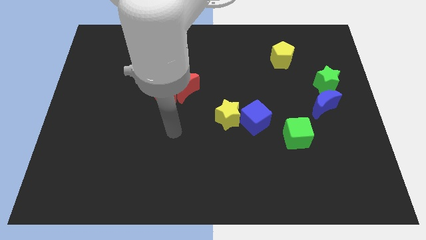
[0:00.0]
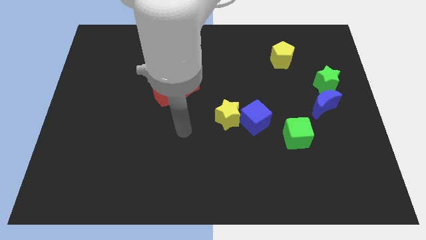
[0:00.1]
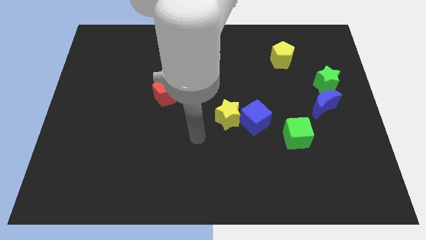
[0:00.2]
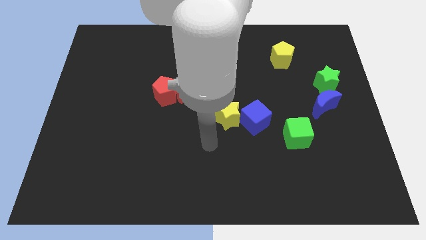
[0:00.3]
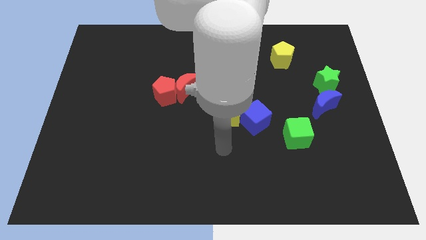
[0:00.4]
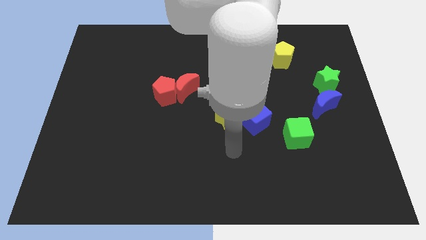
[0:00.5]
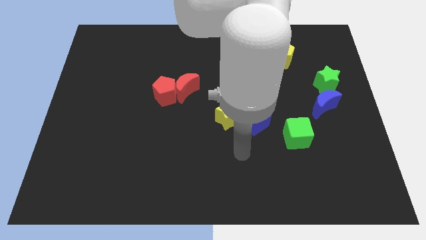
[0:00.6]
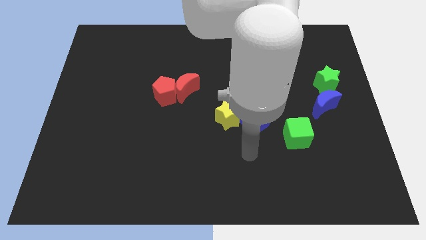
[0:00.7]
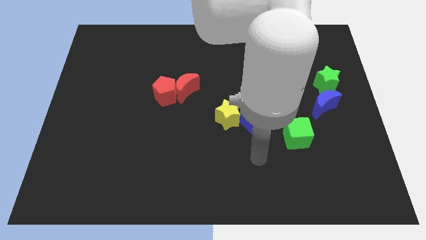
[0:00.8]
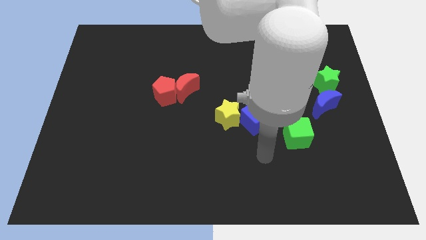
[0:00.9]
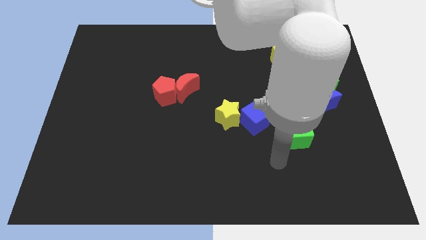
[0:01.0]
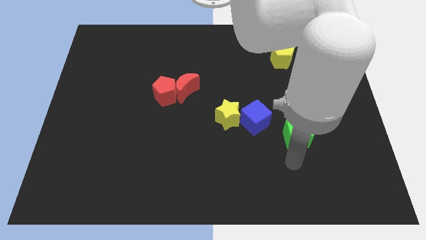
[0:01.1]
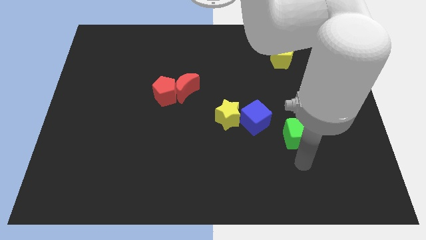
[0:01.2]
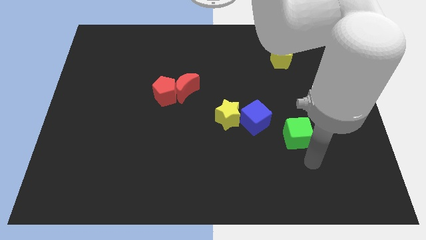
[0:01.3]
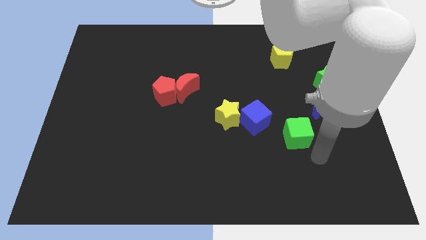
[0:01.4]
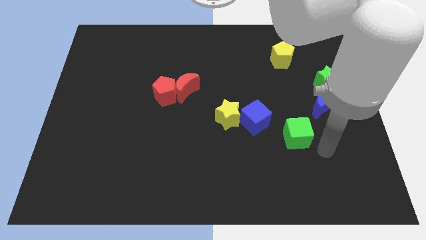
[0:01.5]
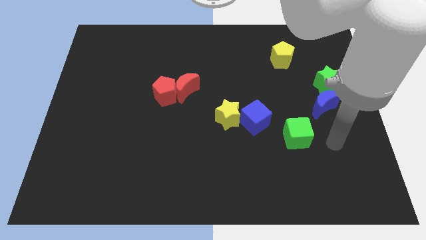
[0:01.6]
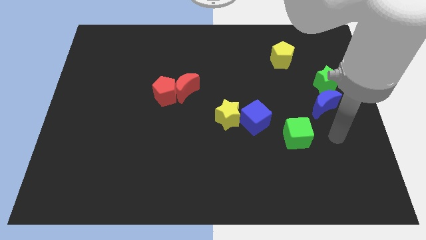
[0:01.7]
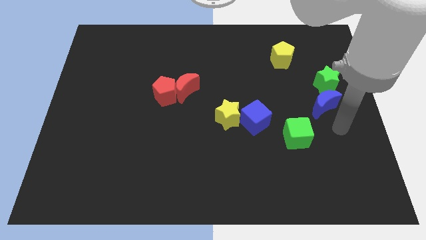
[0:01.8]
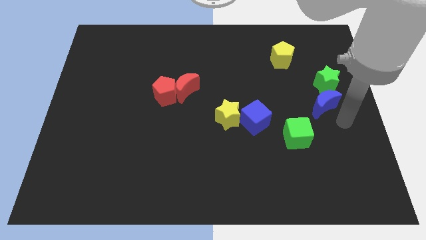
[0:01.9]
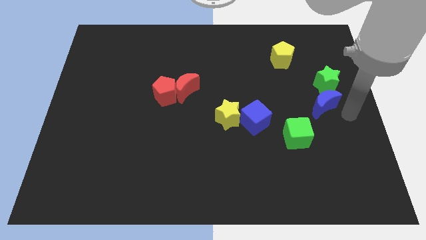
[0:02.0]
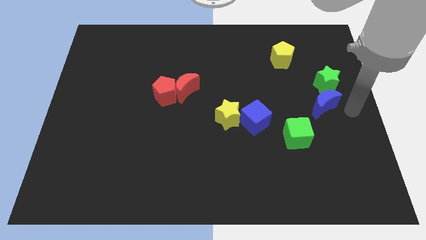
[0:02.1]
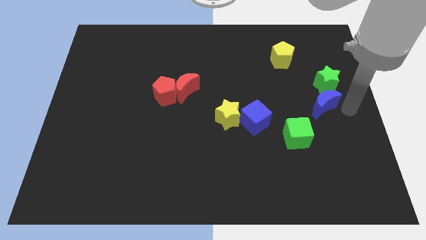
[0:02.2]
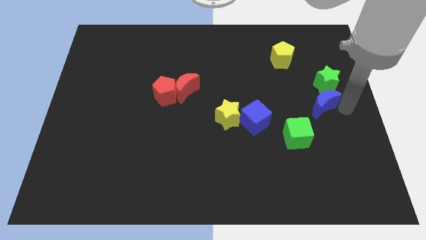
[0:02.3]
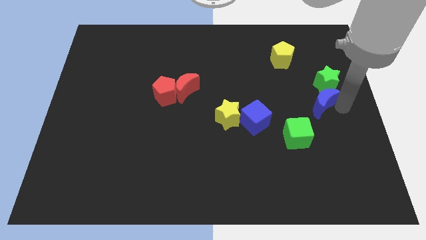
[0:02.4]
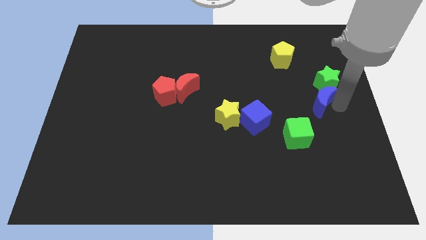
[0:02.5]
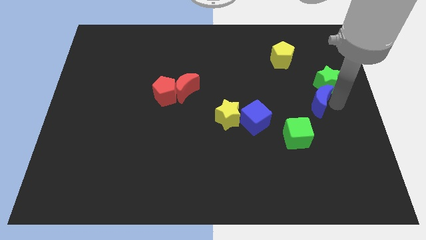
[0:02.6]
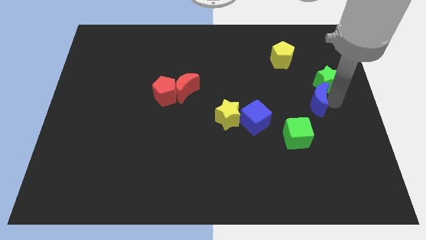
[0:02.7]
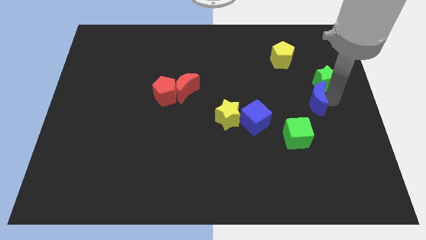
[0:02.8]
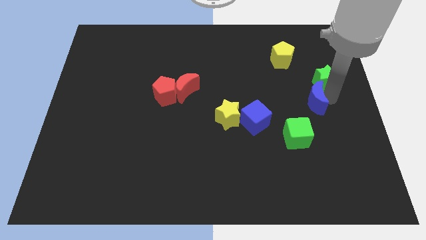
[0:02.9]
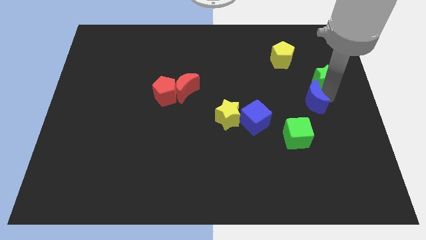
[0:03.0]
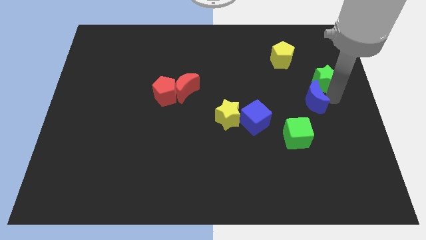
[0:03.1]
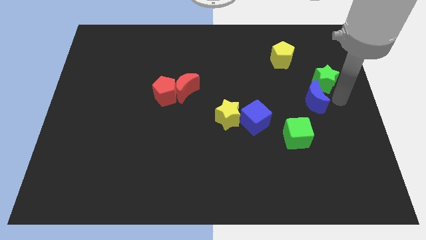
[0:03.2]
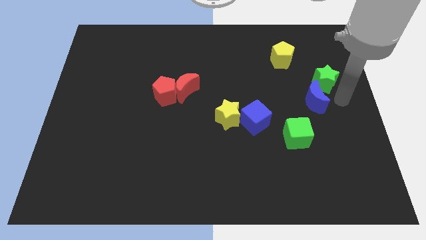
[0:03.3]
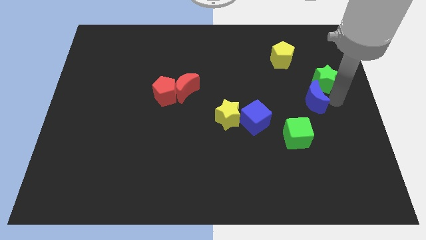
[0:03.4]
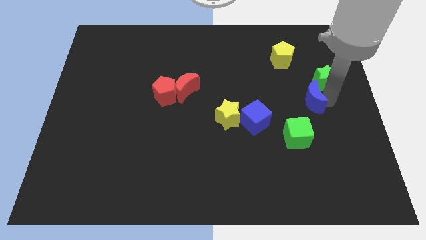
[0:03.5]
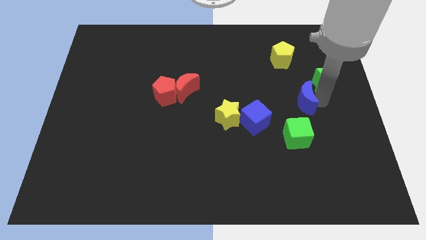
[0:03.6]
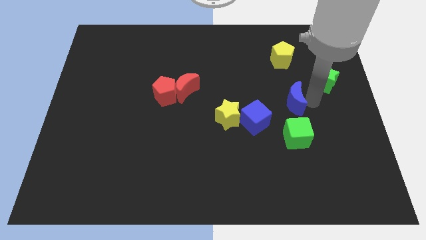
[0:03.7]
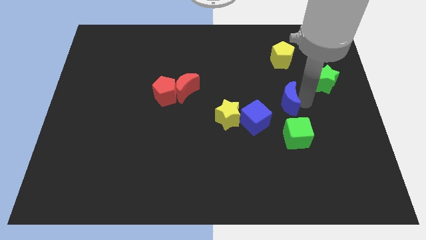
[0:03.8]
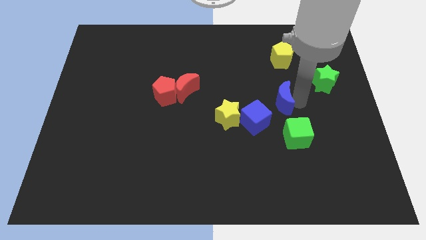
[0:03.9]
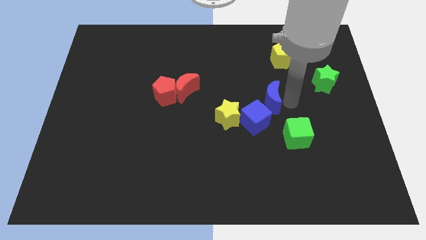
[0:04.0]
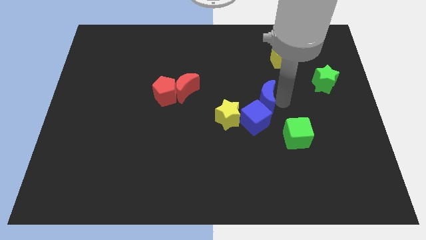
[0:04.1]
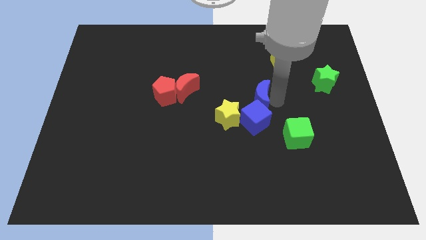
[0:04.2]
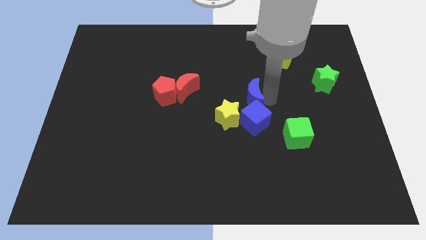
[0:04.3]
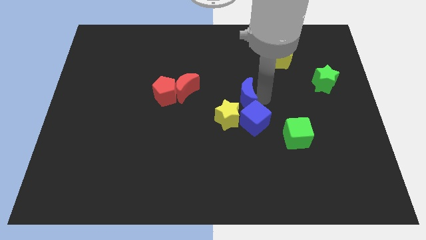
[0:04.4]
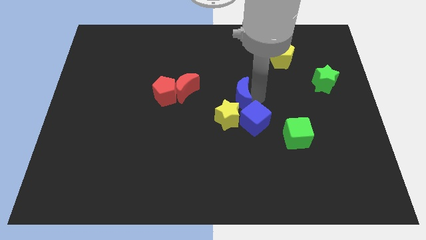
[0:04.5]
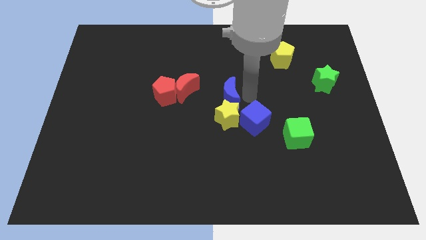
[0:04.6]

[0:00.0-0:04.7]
push the blue moon to the left

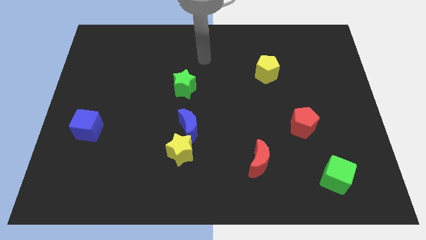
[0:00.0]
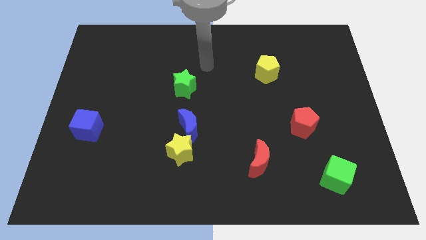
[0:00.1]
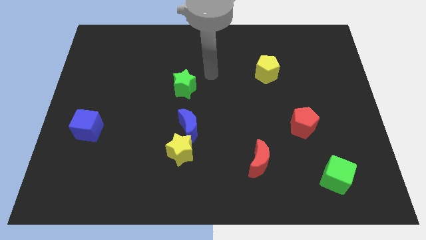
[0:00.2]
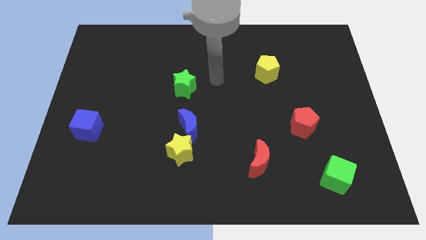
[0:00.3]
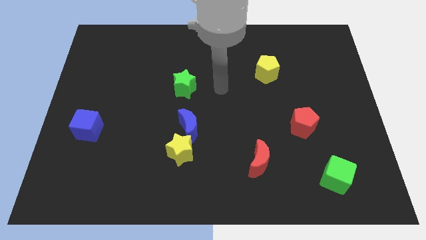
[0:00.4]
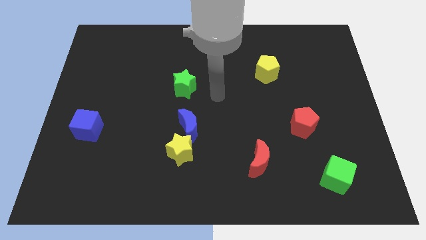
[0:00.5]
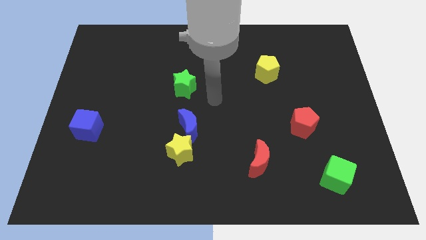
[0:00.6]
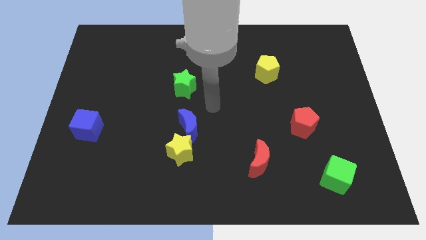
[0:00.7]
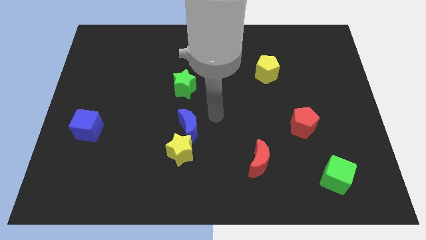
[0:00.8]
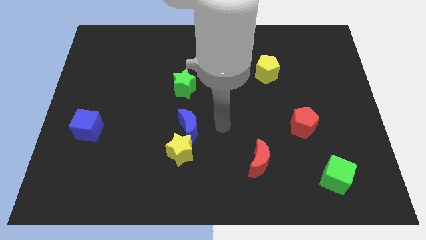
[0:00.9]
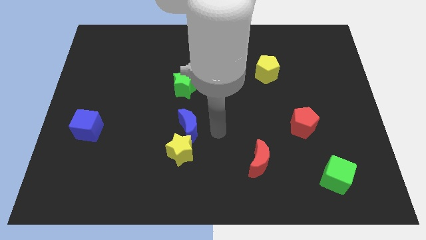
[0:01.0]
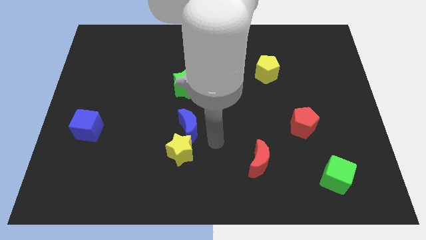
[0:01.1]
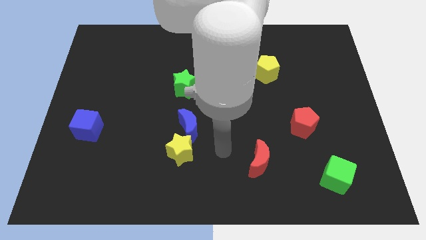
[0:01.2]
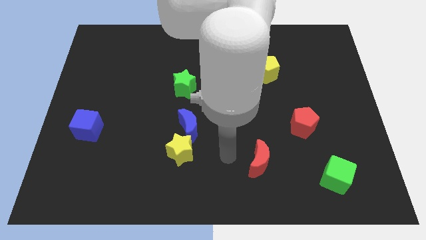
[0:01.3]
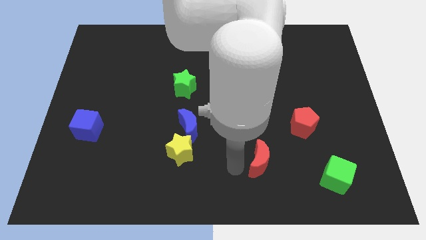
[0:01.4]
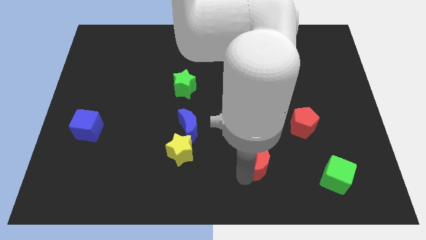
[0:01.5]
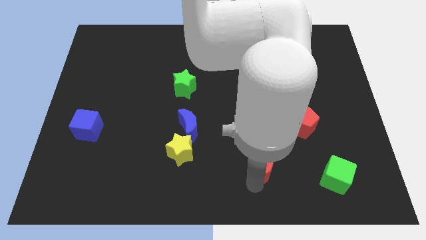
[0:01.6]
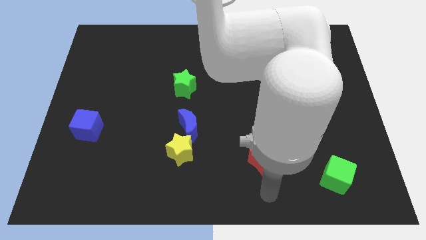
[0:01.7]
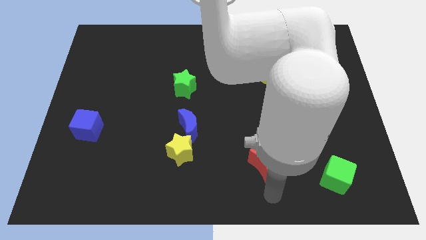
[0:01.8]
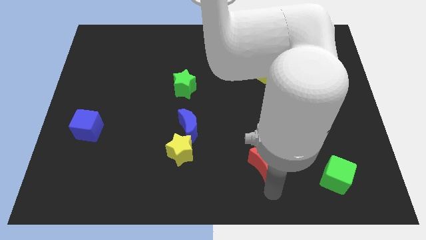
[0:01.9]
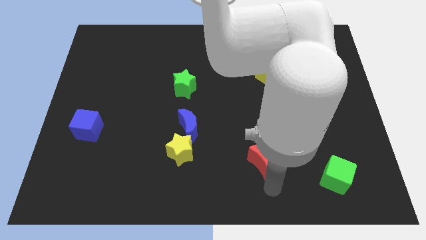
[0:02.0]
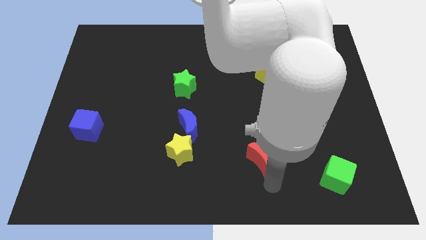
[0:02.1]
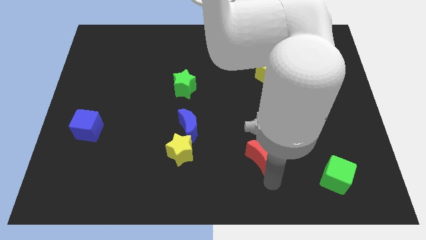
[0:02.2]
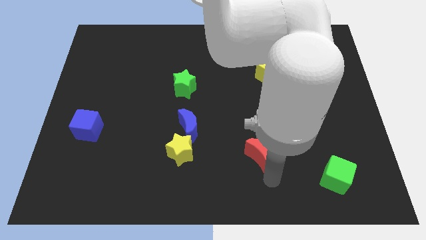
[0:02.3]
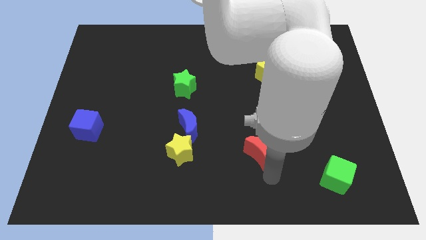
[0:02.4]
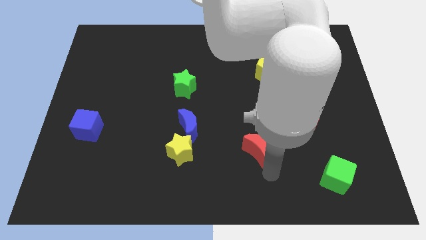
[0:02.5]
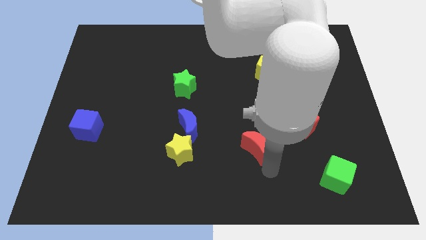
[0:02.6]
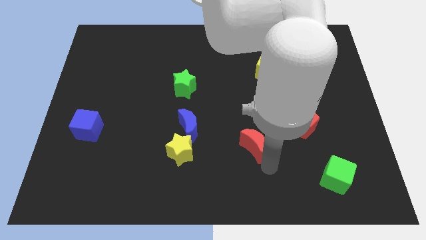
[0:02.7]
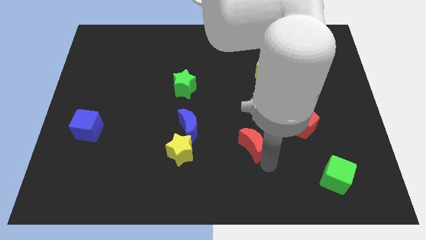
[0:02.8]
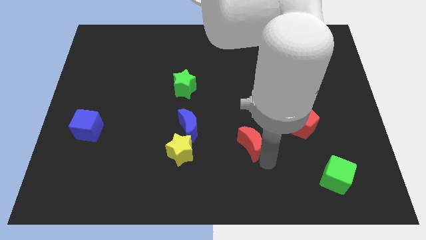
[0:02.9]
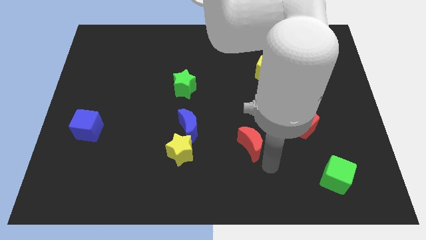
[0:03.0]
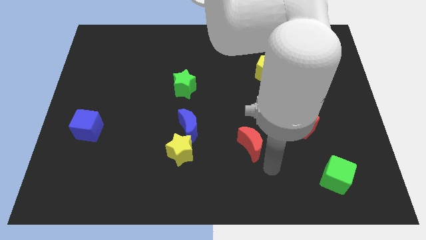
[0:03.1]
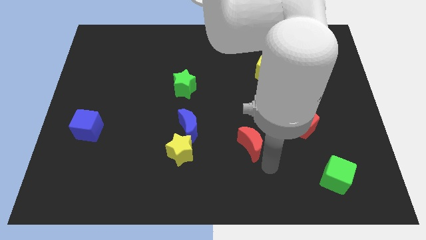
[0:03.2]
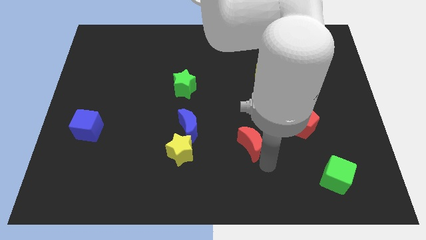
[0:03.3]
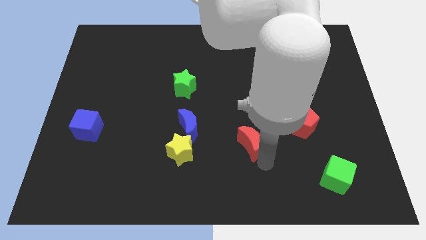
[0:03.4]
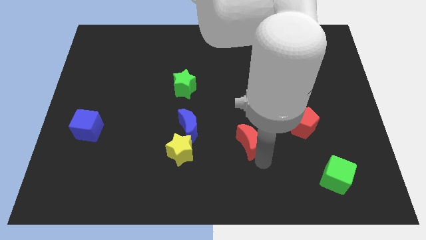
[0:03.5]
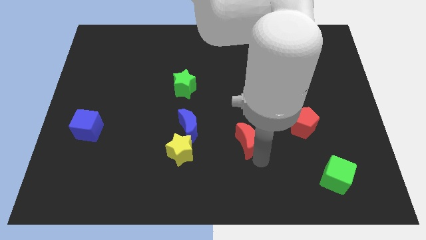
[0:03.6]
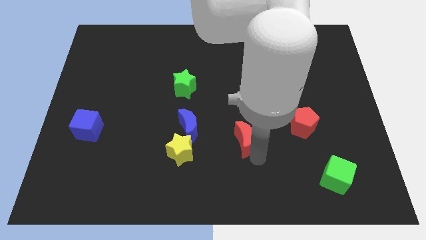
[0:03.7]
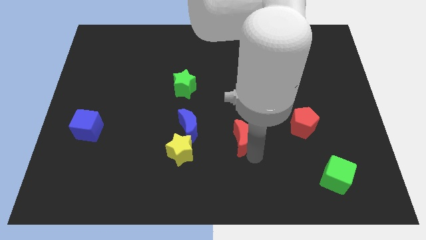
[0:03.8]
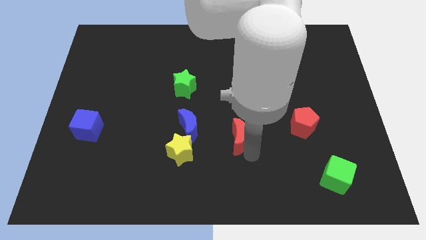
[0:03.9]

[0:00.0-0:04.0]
slide the red moon a little bit up and then to the left
